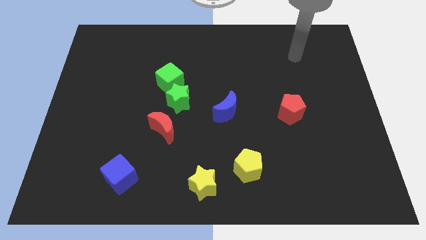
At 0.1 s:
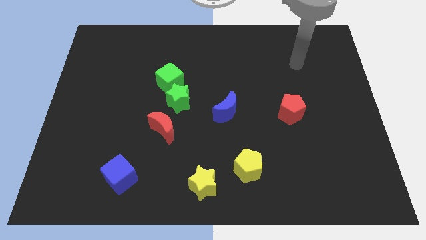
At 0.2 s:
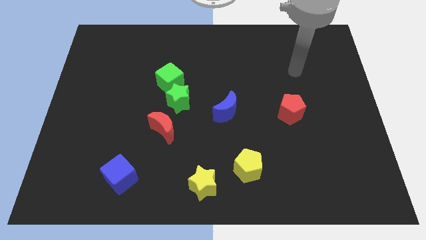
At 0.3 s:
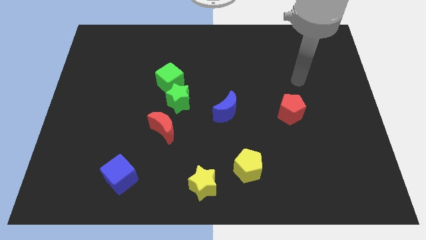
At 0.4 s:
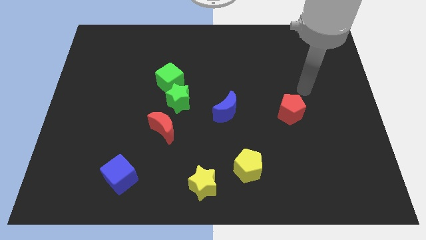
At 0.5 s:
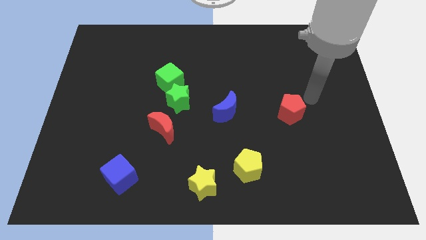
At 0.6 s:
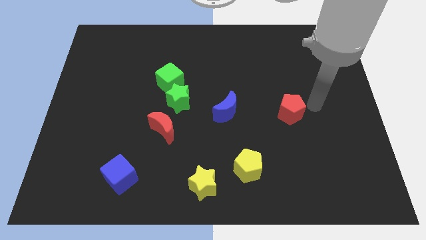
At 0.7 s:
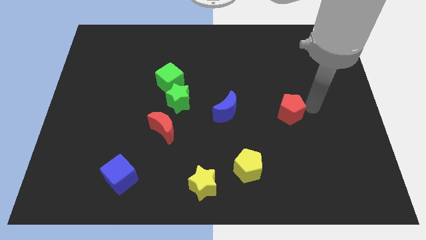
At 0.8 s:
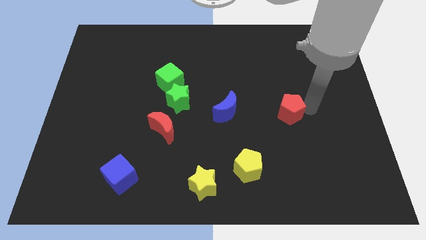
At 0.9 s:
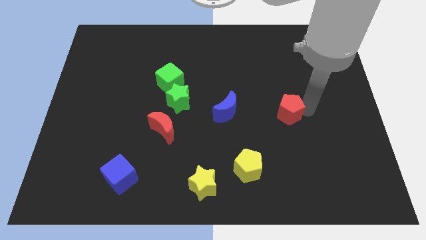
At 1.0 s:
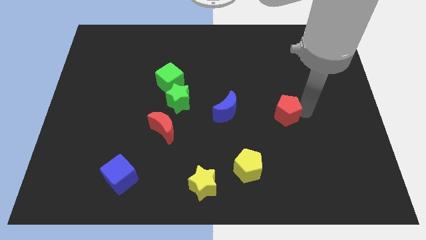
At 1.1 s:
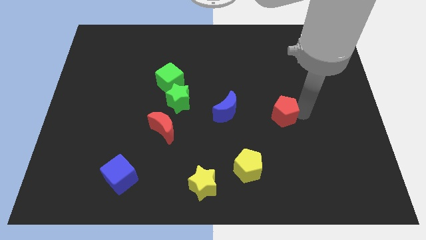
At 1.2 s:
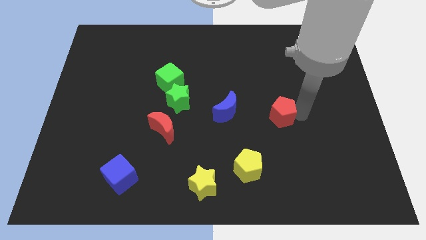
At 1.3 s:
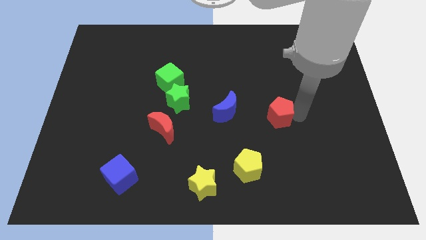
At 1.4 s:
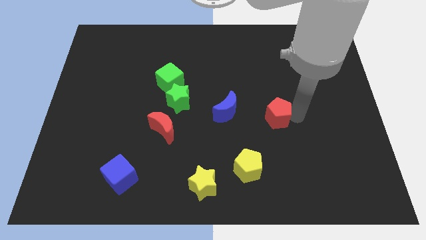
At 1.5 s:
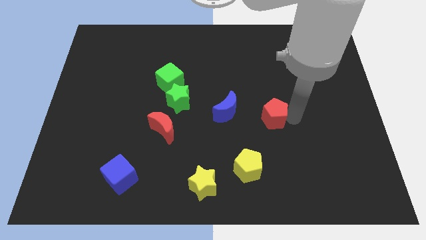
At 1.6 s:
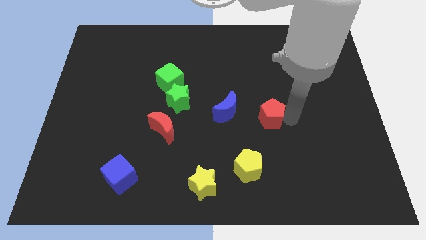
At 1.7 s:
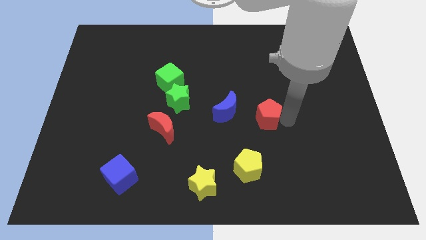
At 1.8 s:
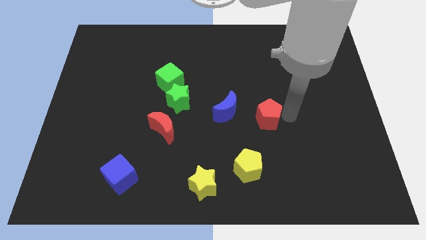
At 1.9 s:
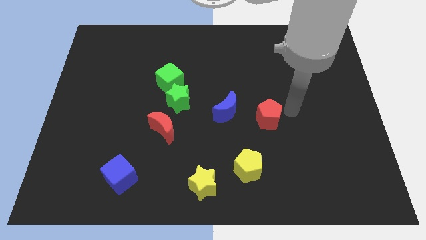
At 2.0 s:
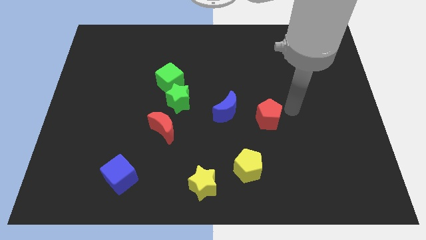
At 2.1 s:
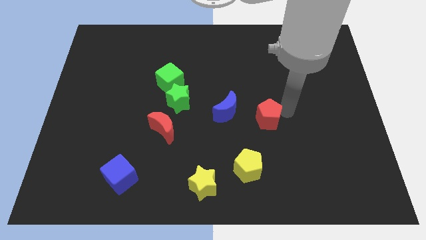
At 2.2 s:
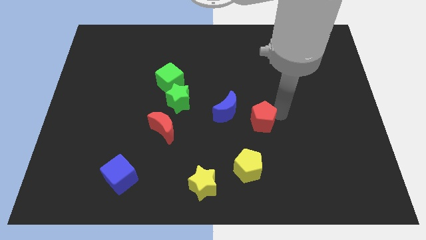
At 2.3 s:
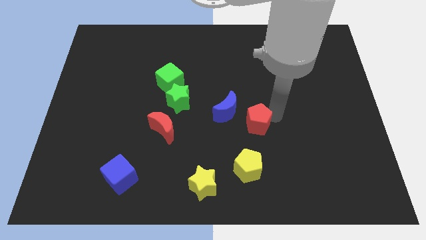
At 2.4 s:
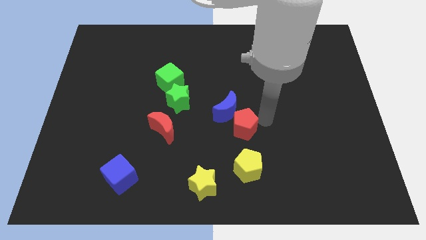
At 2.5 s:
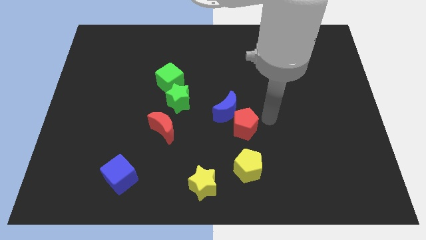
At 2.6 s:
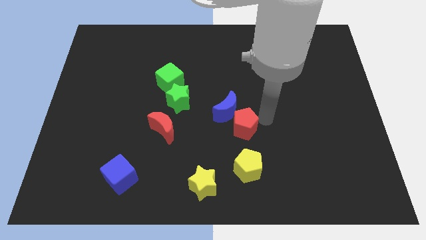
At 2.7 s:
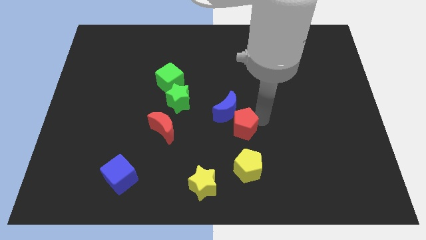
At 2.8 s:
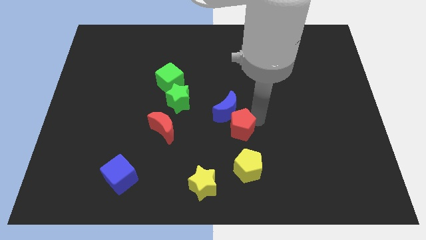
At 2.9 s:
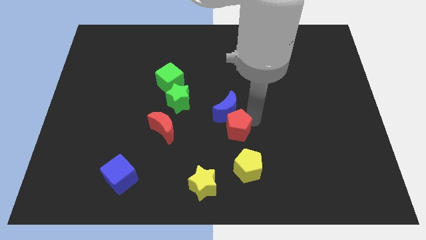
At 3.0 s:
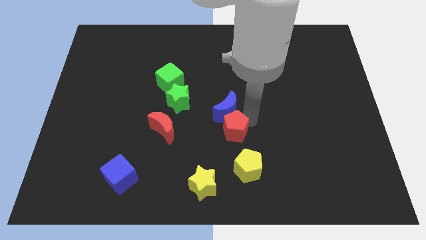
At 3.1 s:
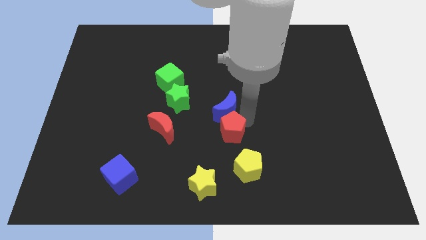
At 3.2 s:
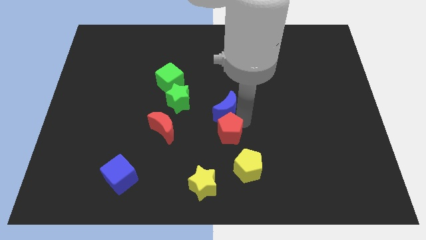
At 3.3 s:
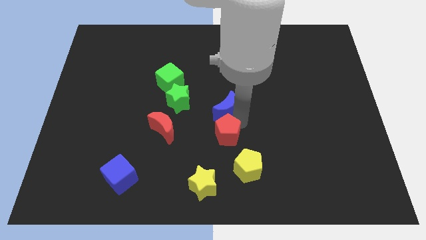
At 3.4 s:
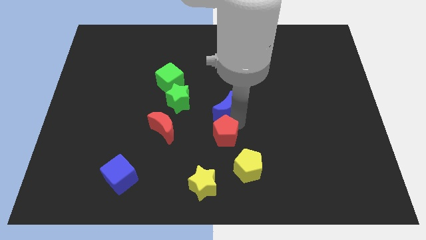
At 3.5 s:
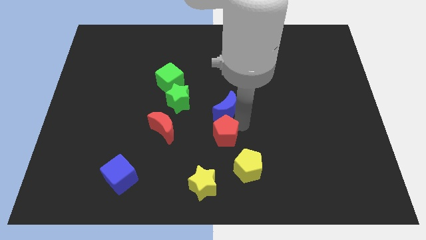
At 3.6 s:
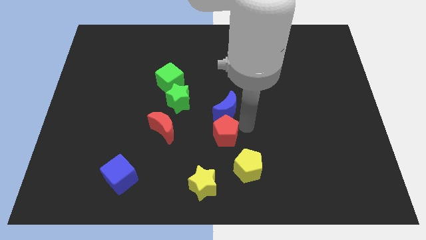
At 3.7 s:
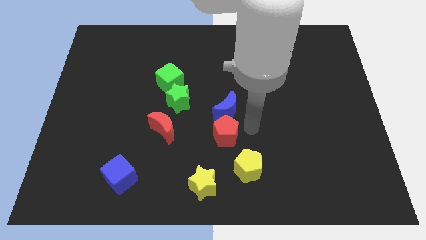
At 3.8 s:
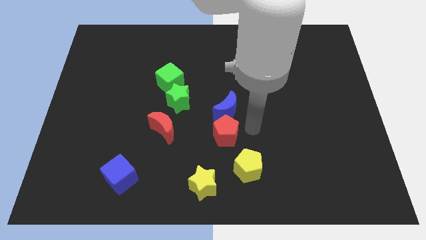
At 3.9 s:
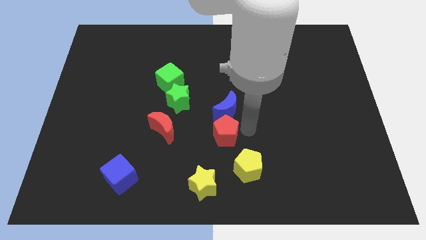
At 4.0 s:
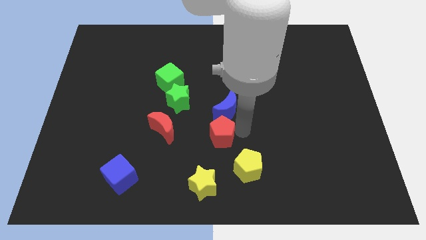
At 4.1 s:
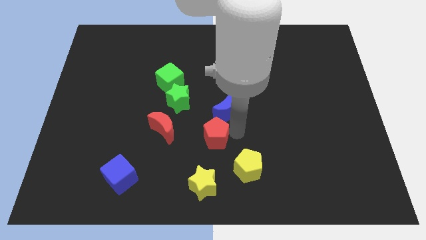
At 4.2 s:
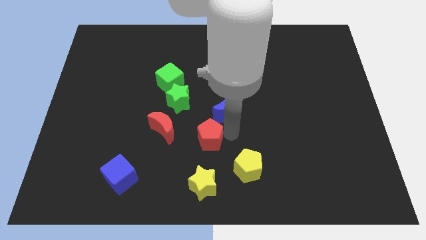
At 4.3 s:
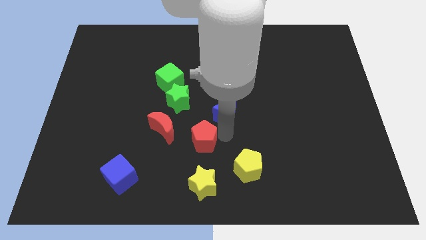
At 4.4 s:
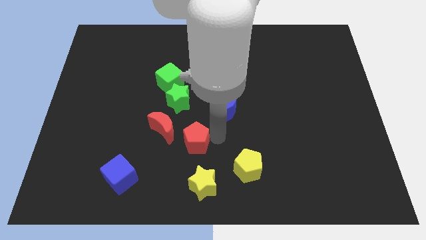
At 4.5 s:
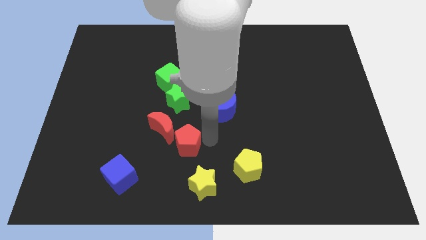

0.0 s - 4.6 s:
move the red pentagon to the left

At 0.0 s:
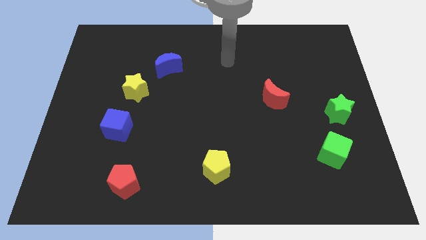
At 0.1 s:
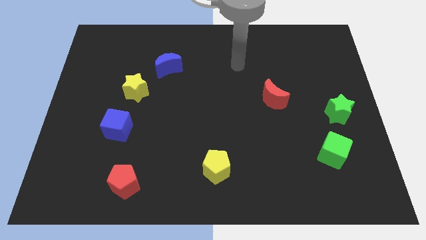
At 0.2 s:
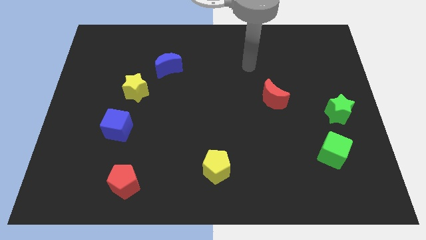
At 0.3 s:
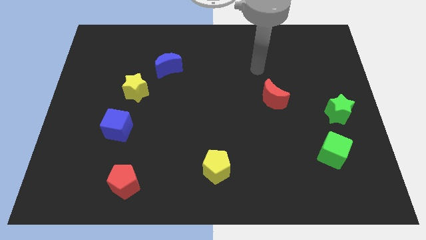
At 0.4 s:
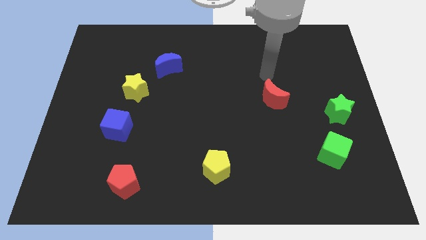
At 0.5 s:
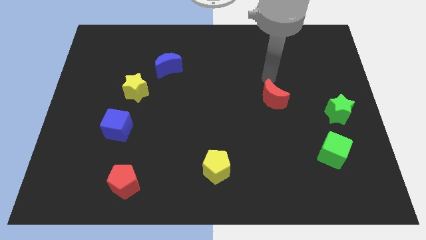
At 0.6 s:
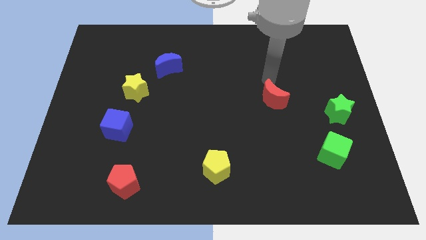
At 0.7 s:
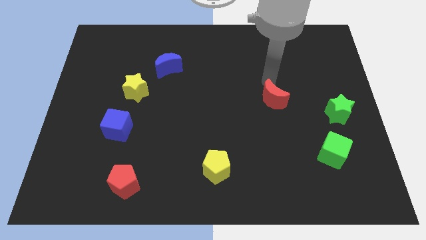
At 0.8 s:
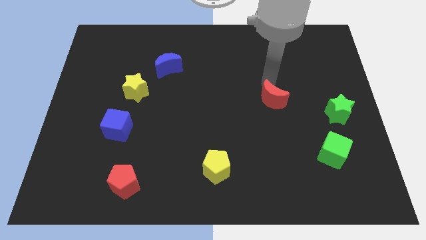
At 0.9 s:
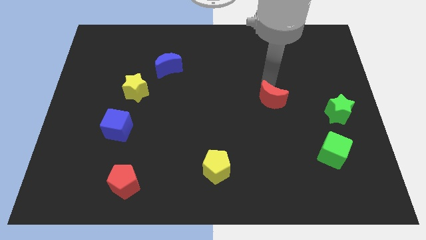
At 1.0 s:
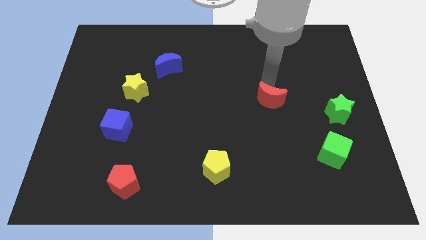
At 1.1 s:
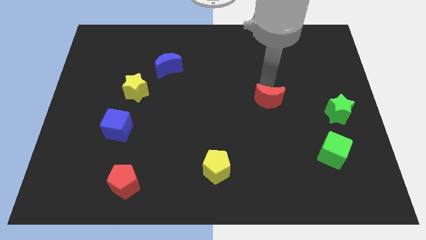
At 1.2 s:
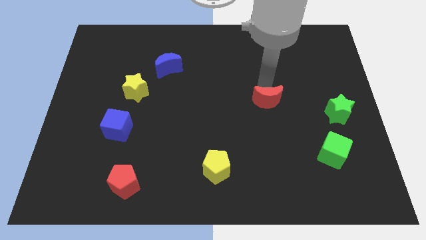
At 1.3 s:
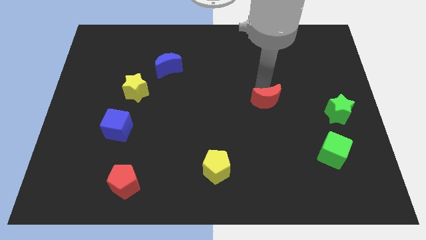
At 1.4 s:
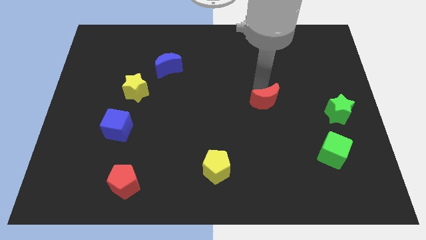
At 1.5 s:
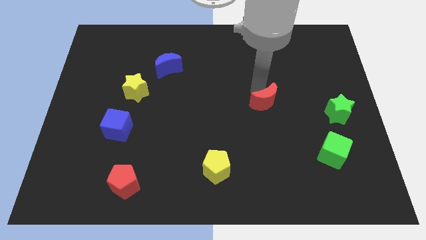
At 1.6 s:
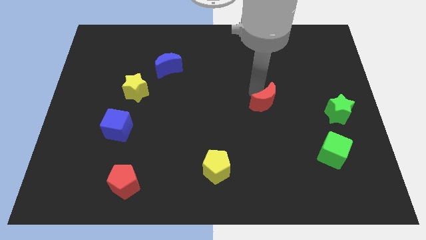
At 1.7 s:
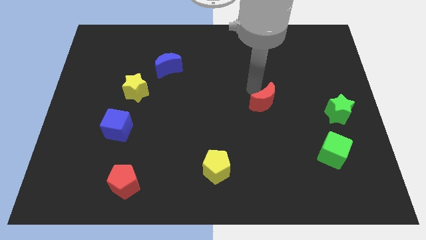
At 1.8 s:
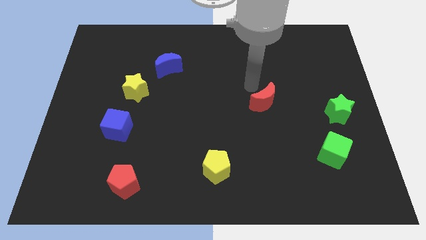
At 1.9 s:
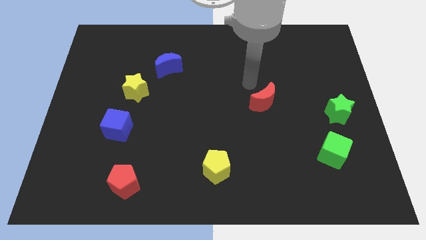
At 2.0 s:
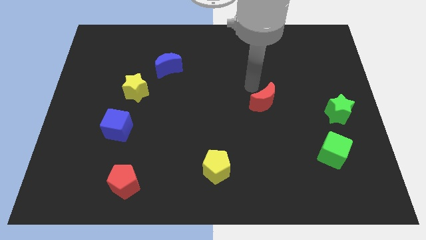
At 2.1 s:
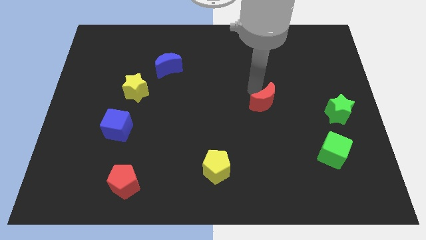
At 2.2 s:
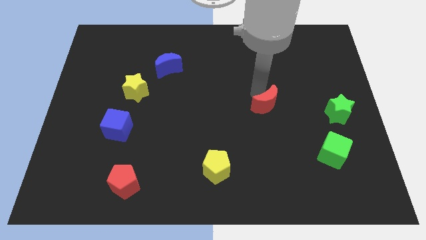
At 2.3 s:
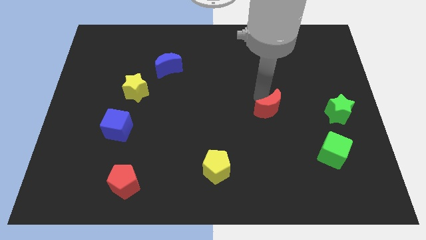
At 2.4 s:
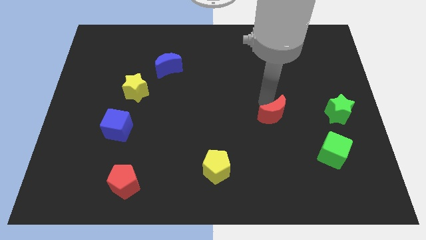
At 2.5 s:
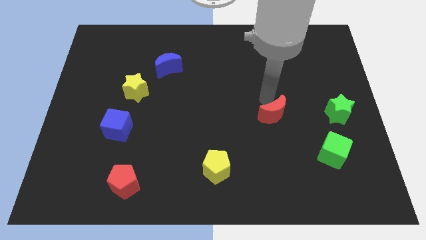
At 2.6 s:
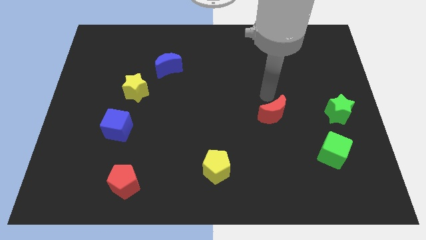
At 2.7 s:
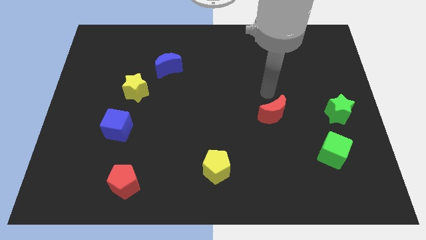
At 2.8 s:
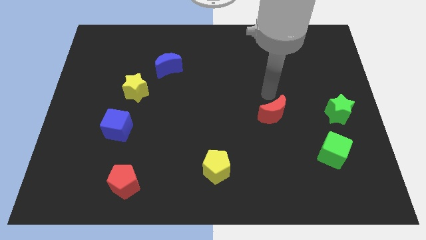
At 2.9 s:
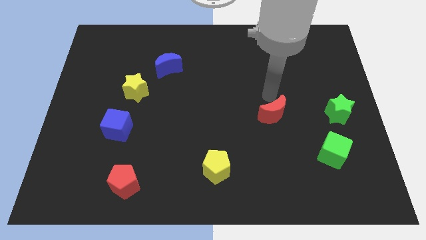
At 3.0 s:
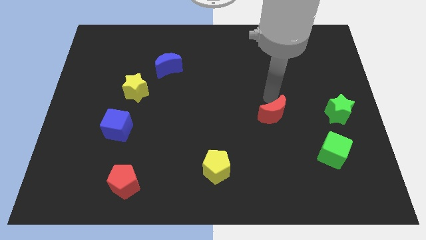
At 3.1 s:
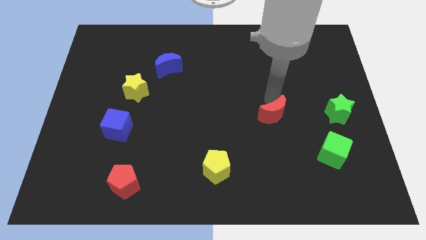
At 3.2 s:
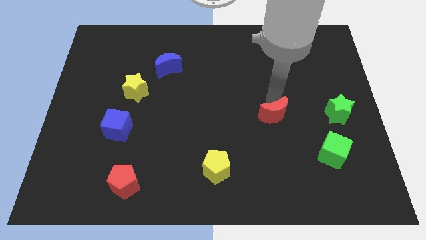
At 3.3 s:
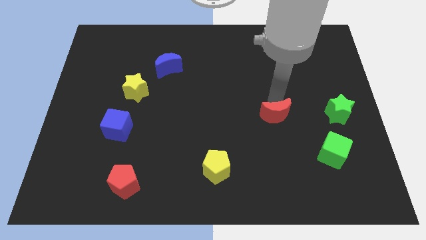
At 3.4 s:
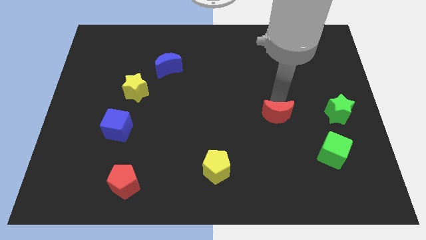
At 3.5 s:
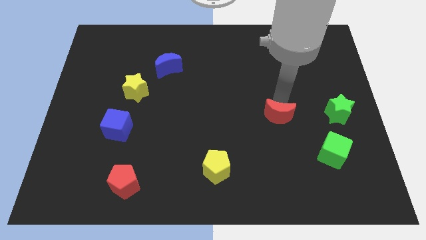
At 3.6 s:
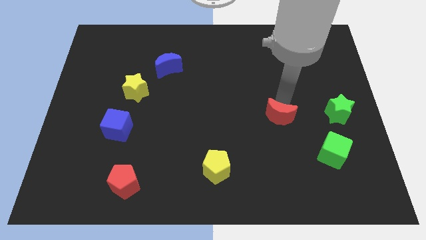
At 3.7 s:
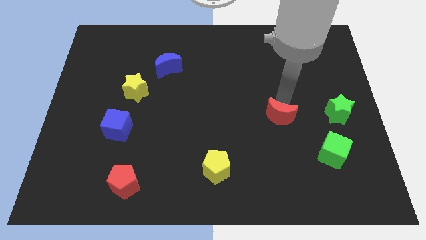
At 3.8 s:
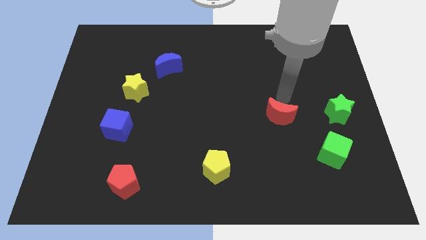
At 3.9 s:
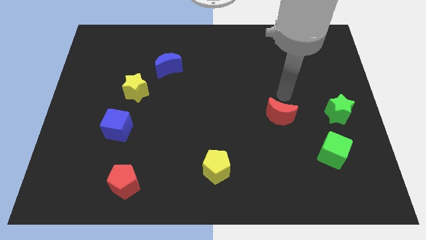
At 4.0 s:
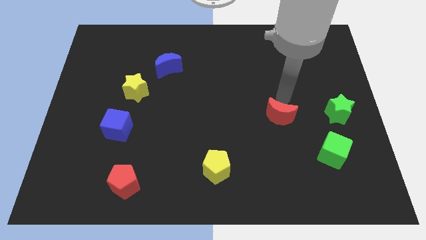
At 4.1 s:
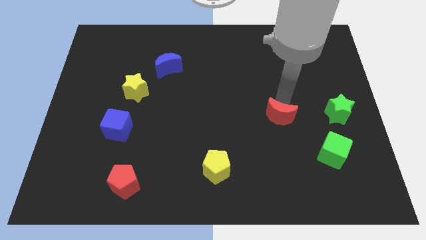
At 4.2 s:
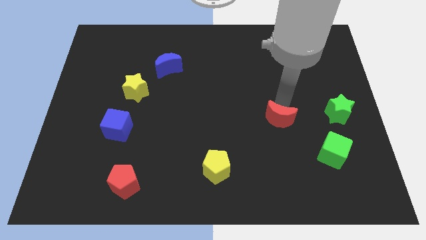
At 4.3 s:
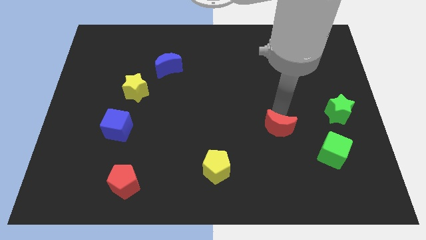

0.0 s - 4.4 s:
slightly push the red moon downwards
